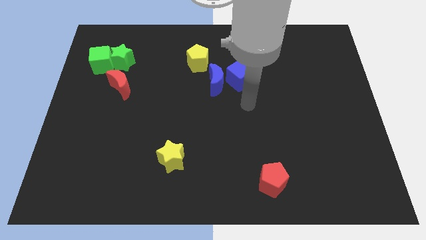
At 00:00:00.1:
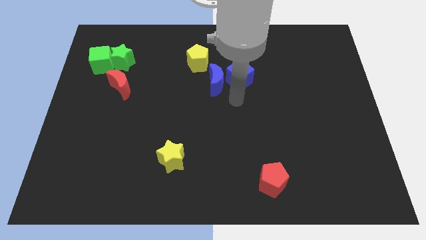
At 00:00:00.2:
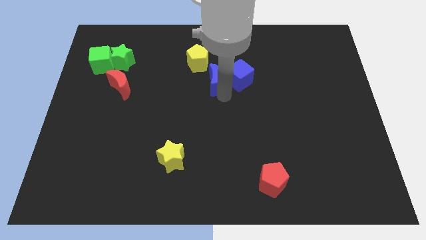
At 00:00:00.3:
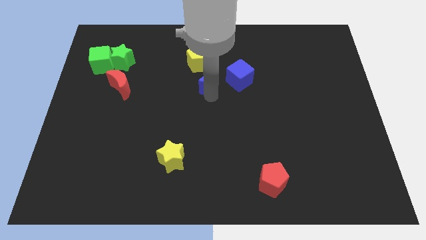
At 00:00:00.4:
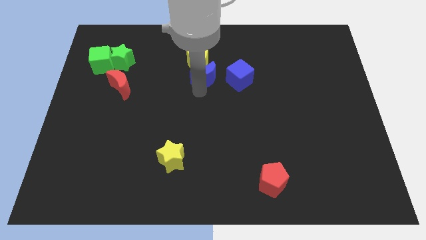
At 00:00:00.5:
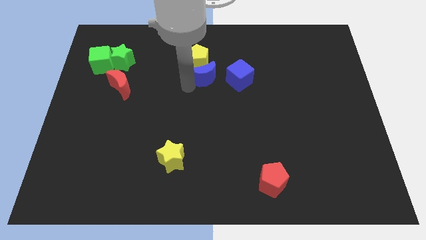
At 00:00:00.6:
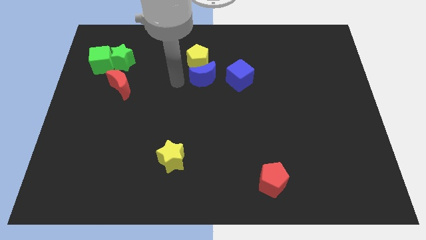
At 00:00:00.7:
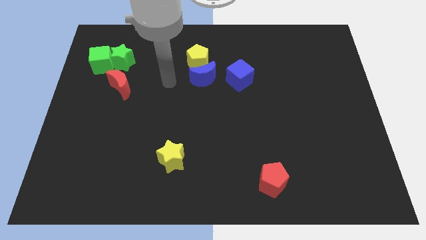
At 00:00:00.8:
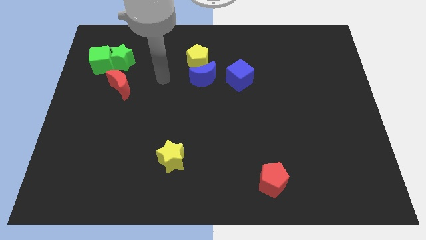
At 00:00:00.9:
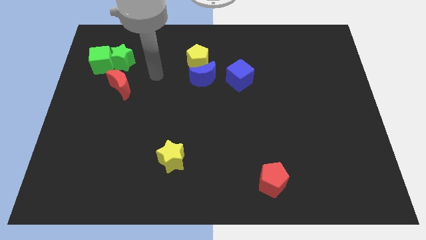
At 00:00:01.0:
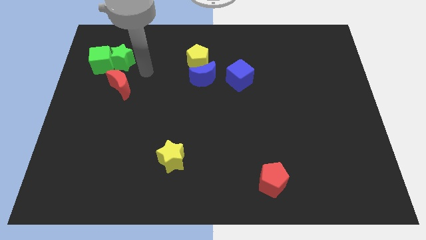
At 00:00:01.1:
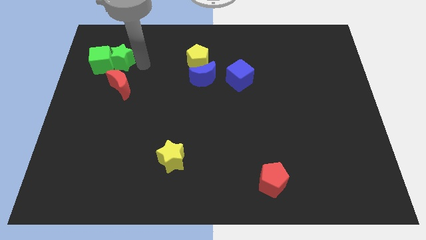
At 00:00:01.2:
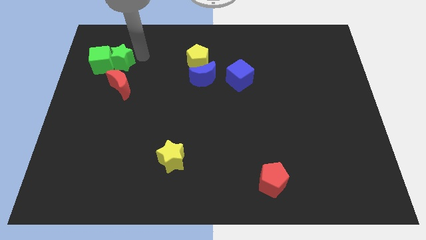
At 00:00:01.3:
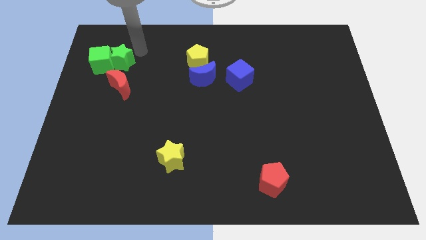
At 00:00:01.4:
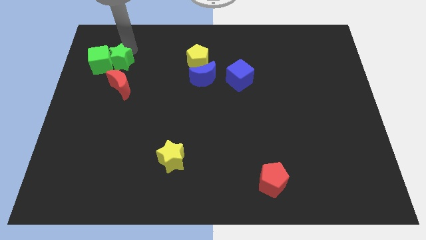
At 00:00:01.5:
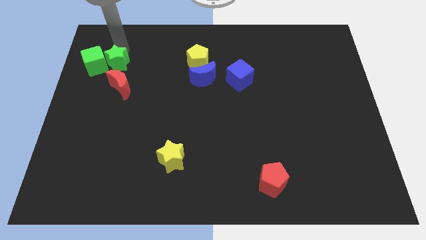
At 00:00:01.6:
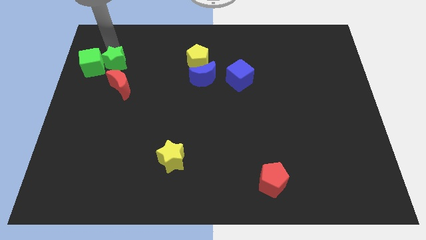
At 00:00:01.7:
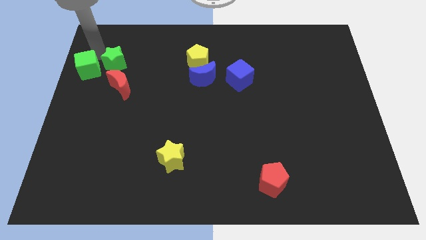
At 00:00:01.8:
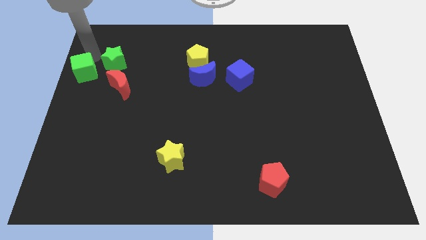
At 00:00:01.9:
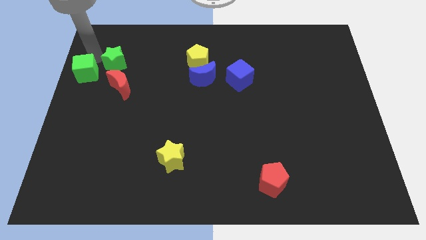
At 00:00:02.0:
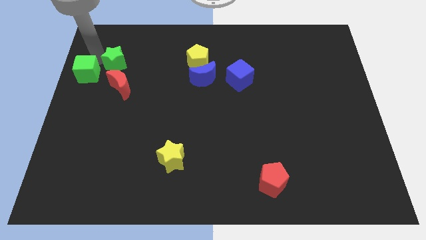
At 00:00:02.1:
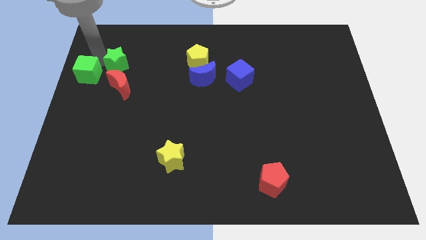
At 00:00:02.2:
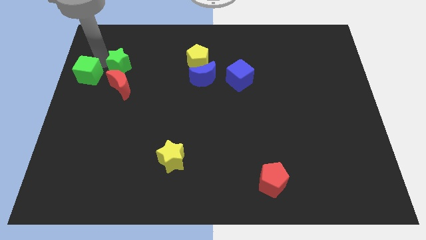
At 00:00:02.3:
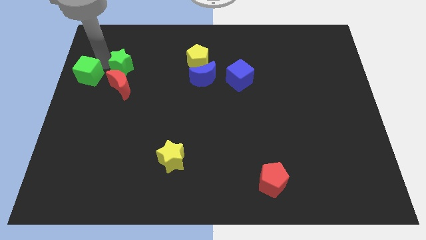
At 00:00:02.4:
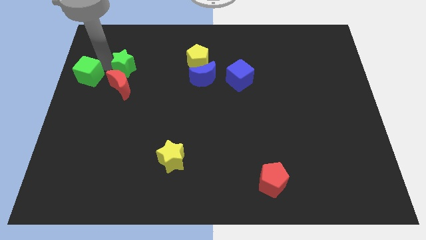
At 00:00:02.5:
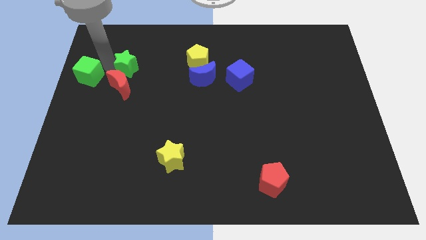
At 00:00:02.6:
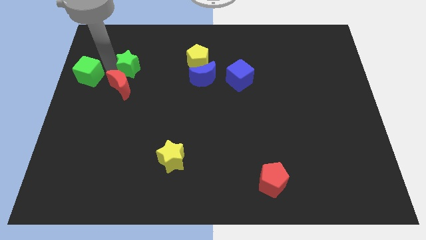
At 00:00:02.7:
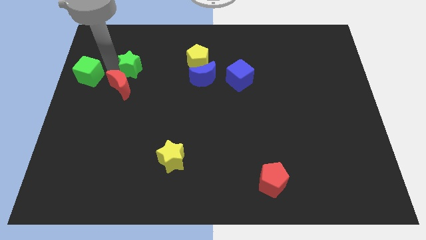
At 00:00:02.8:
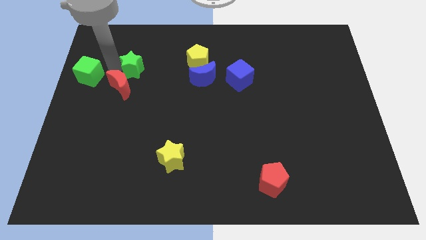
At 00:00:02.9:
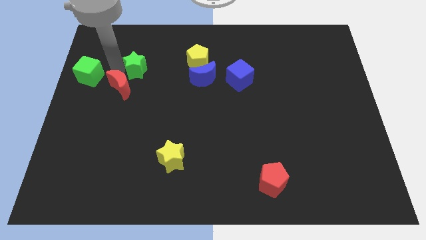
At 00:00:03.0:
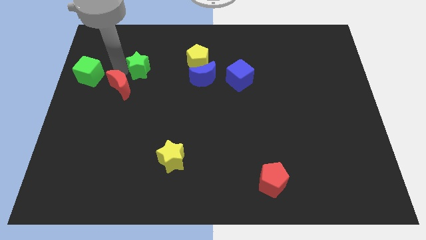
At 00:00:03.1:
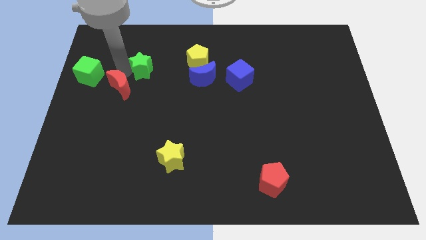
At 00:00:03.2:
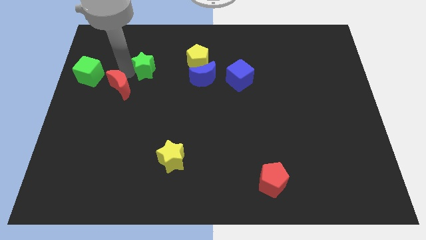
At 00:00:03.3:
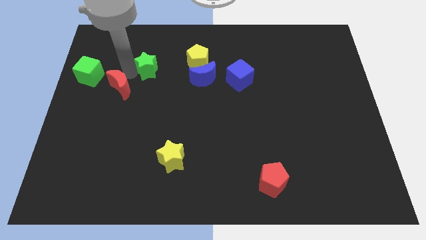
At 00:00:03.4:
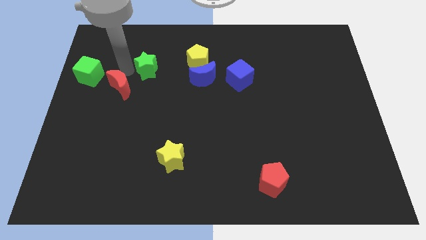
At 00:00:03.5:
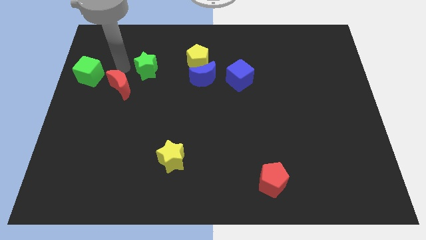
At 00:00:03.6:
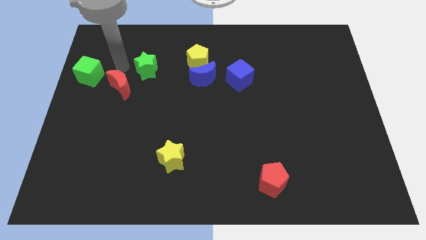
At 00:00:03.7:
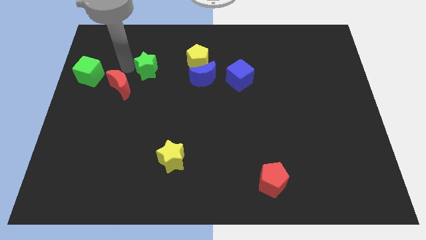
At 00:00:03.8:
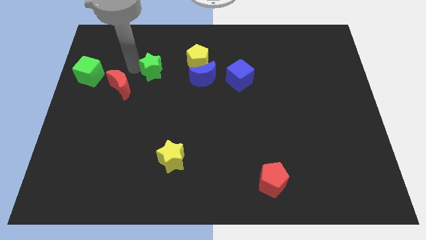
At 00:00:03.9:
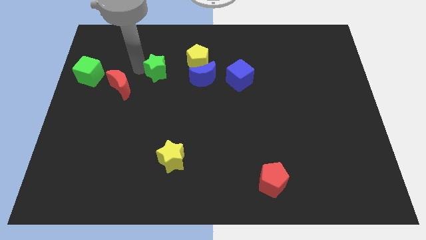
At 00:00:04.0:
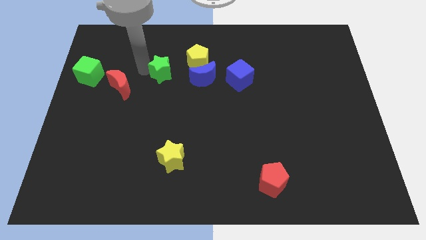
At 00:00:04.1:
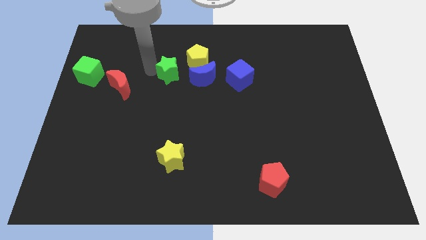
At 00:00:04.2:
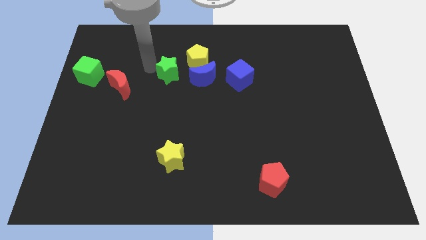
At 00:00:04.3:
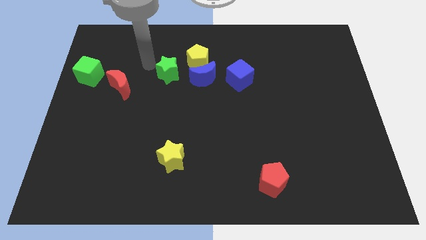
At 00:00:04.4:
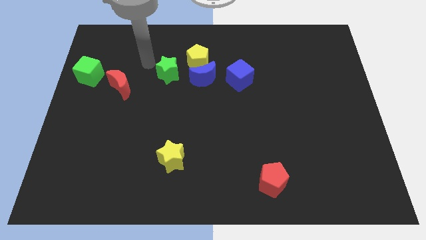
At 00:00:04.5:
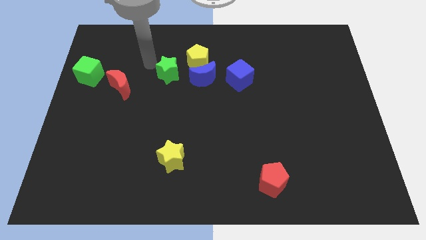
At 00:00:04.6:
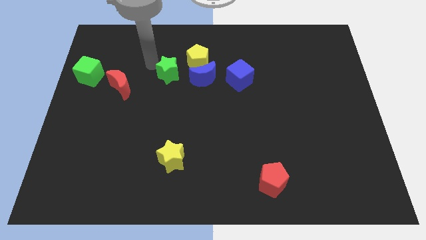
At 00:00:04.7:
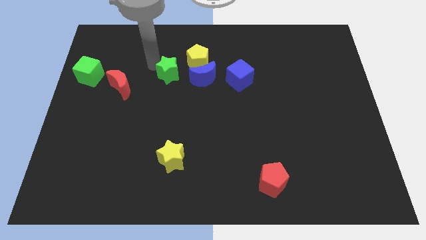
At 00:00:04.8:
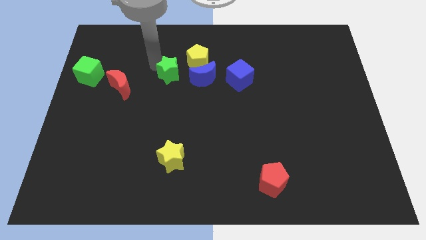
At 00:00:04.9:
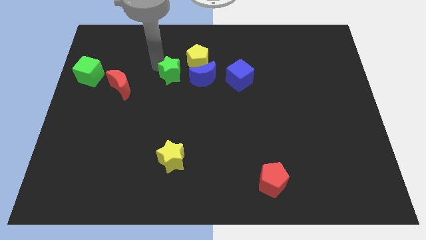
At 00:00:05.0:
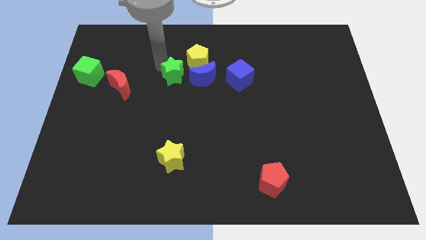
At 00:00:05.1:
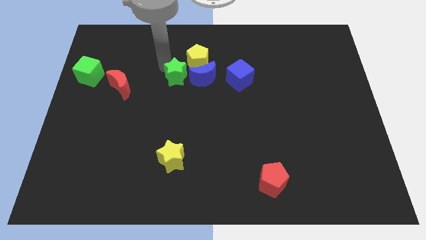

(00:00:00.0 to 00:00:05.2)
move the green star to the center of the board

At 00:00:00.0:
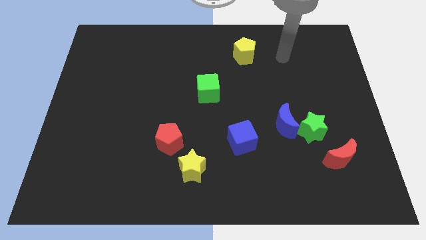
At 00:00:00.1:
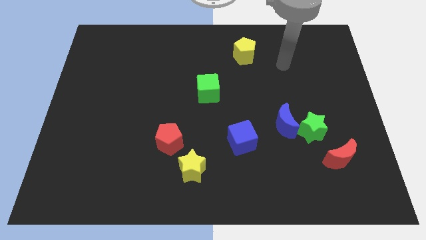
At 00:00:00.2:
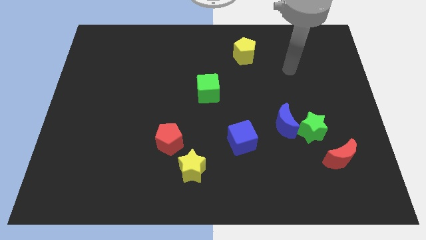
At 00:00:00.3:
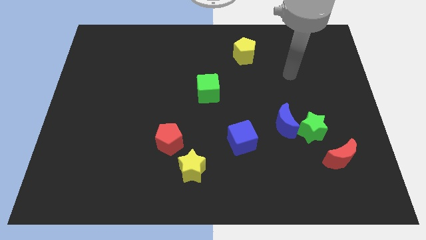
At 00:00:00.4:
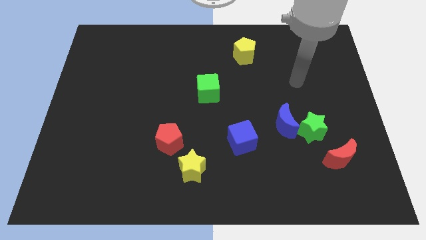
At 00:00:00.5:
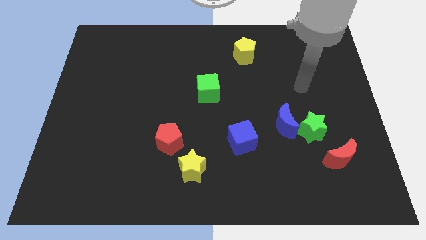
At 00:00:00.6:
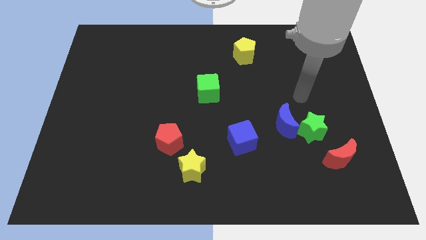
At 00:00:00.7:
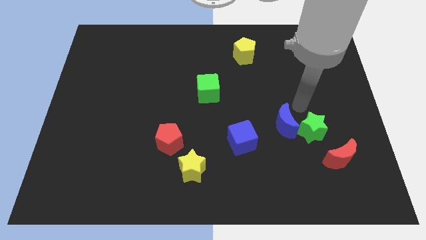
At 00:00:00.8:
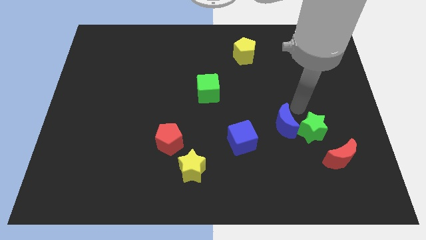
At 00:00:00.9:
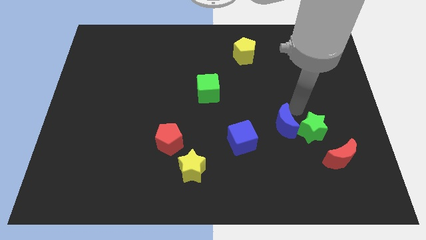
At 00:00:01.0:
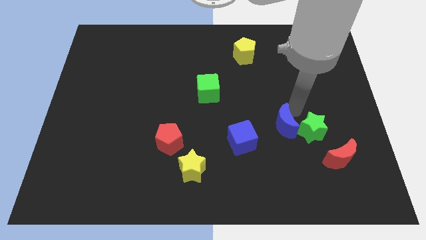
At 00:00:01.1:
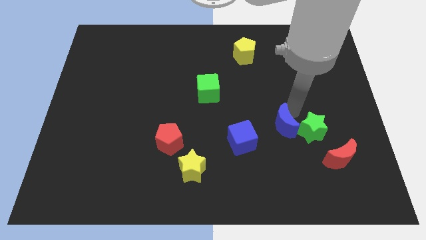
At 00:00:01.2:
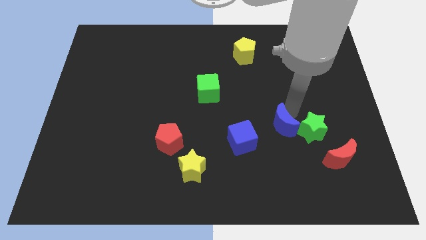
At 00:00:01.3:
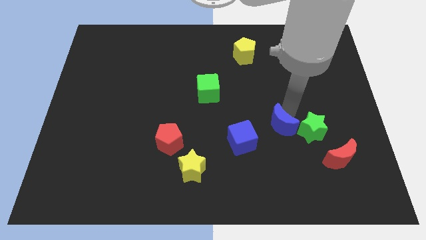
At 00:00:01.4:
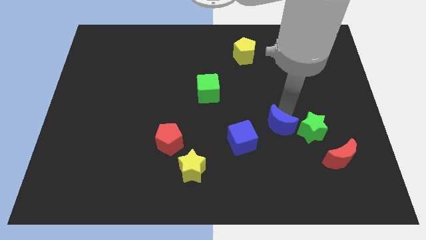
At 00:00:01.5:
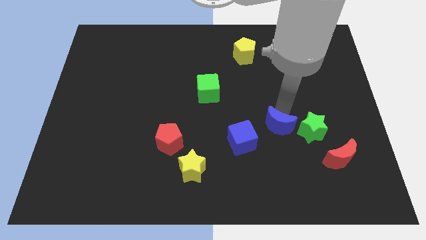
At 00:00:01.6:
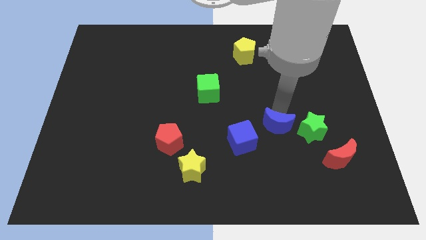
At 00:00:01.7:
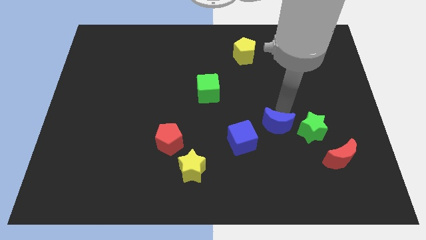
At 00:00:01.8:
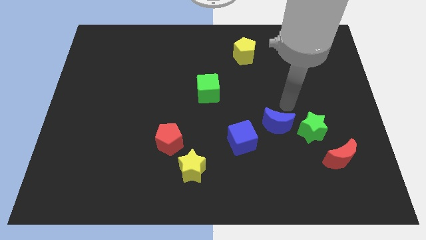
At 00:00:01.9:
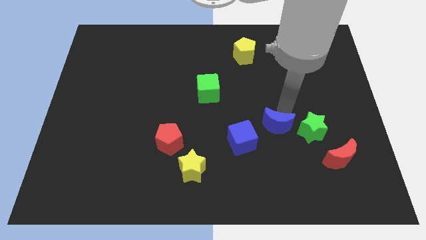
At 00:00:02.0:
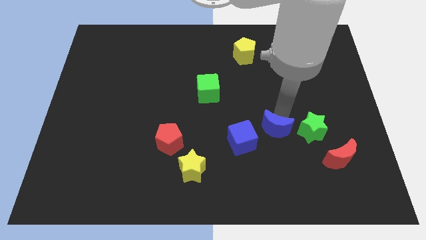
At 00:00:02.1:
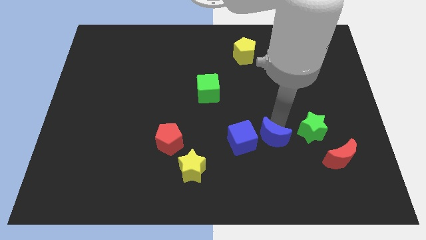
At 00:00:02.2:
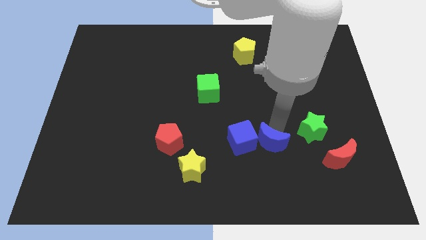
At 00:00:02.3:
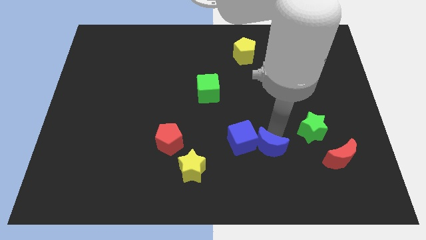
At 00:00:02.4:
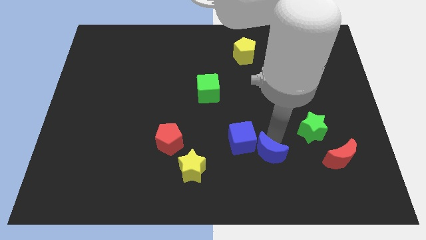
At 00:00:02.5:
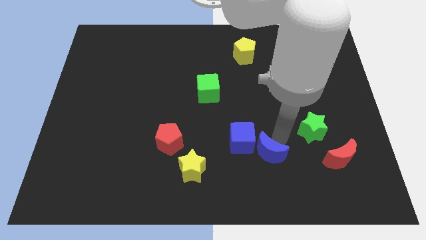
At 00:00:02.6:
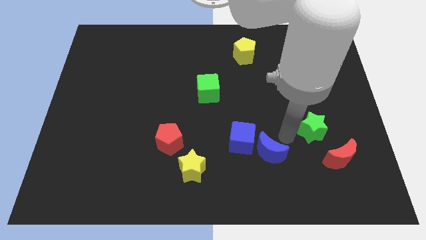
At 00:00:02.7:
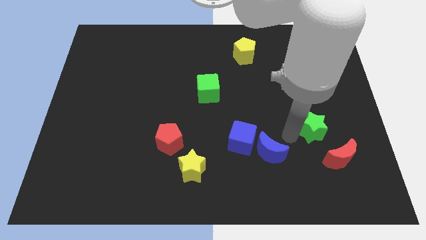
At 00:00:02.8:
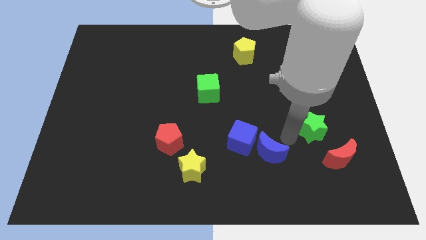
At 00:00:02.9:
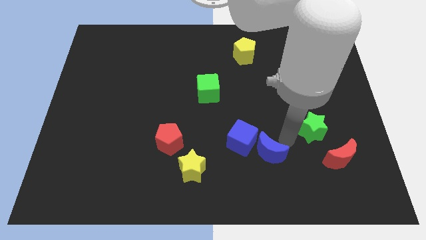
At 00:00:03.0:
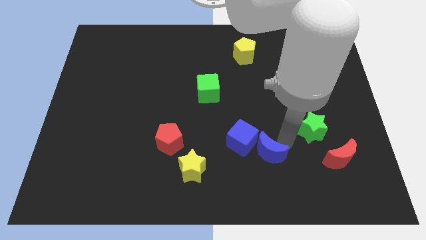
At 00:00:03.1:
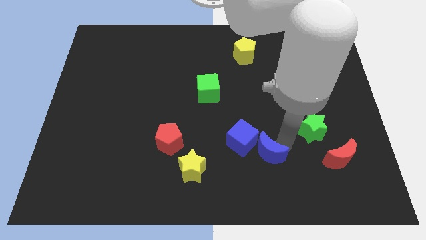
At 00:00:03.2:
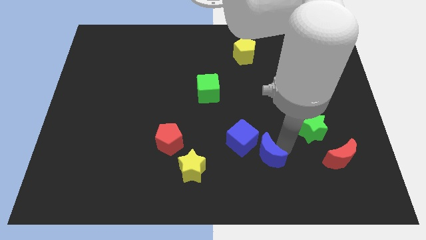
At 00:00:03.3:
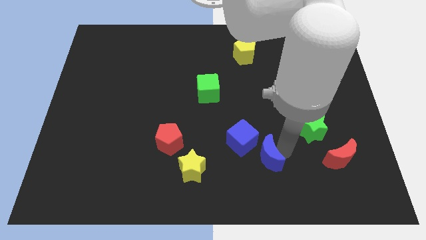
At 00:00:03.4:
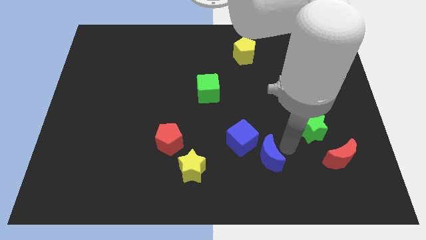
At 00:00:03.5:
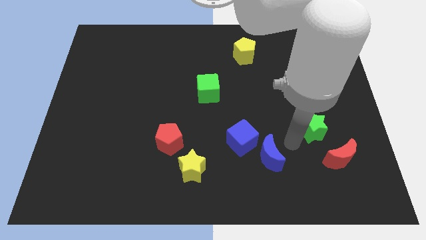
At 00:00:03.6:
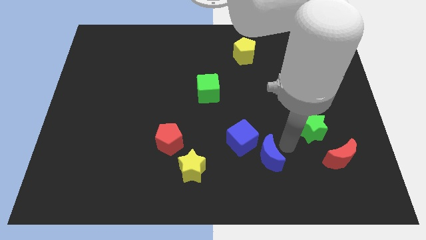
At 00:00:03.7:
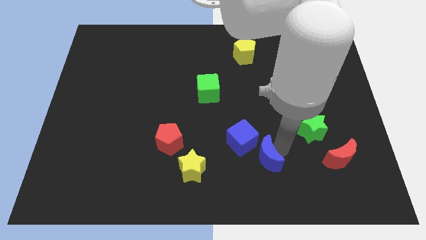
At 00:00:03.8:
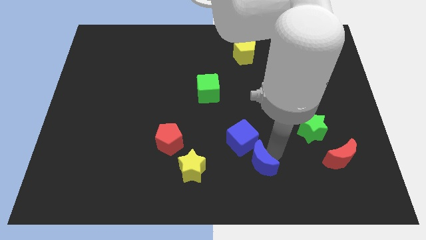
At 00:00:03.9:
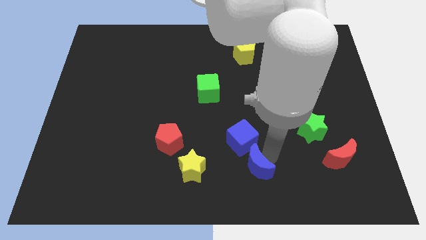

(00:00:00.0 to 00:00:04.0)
push the blue moon to the bottom
